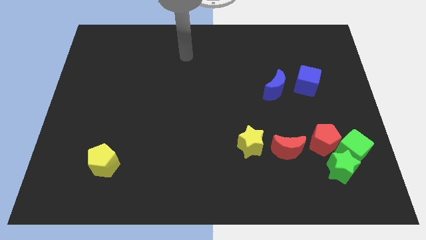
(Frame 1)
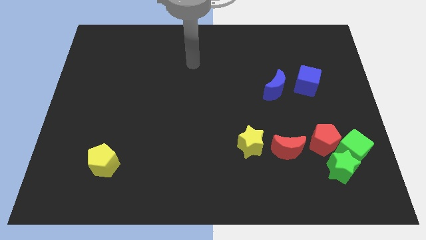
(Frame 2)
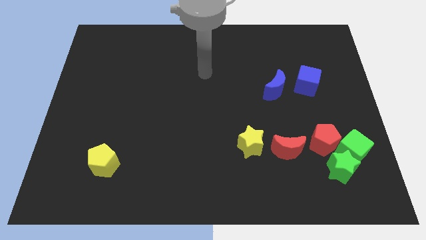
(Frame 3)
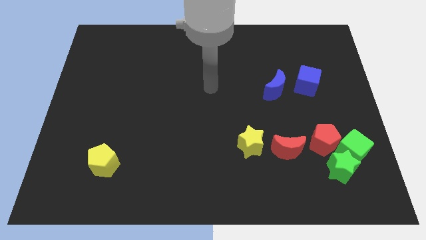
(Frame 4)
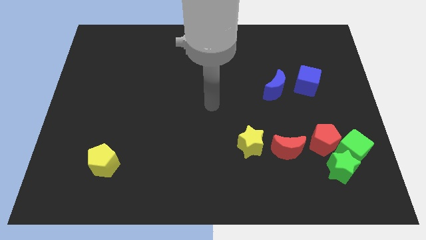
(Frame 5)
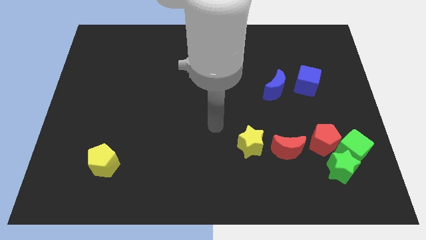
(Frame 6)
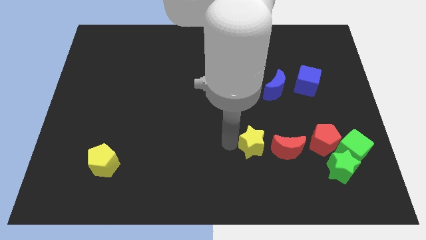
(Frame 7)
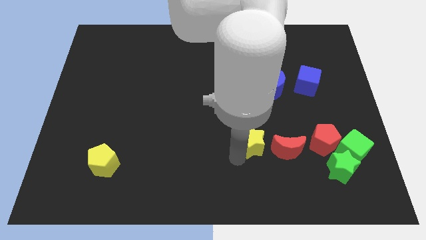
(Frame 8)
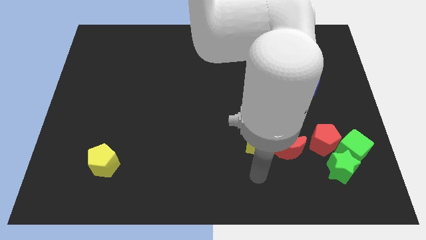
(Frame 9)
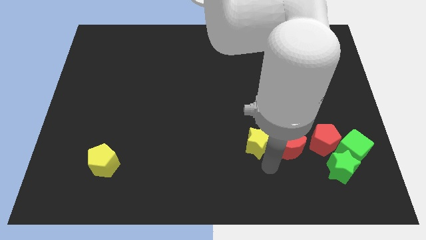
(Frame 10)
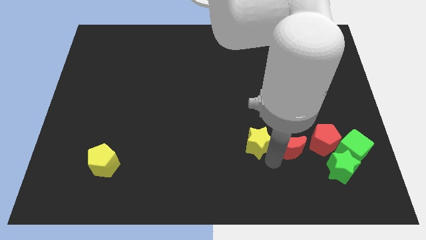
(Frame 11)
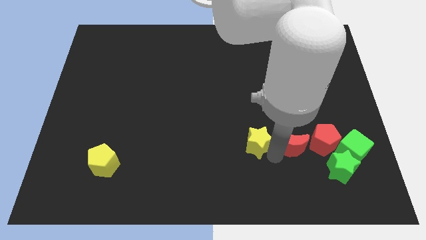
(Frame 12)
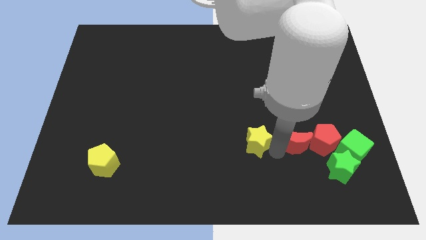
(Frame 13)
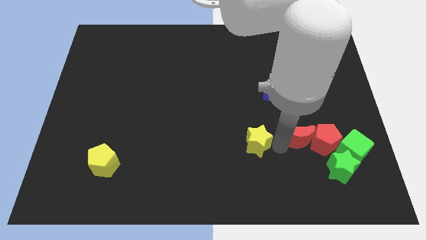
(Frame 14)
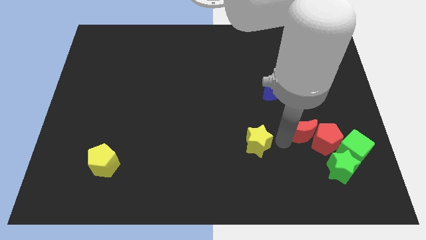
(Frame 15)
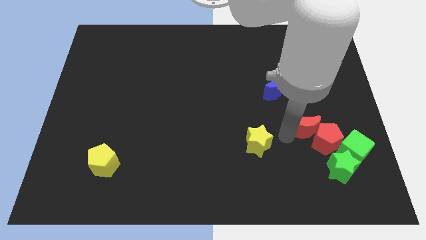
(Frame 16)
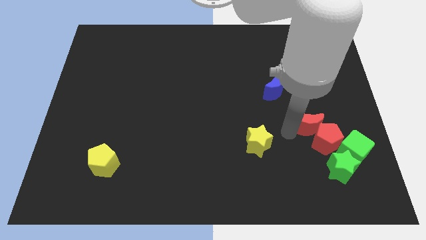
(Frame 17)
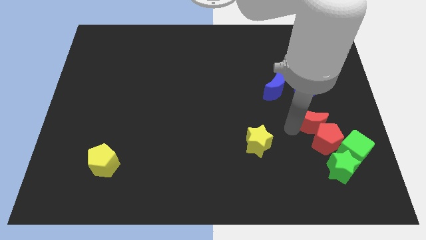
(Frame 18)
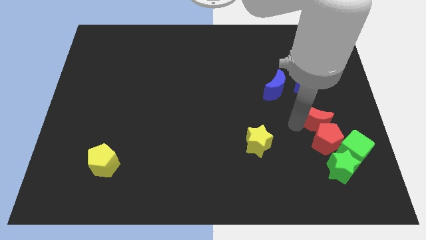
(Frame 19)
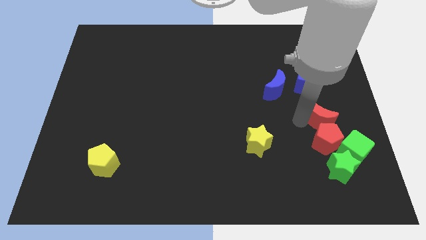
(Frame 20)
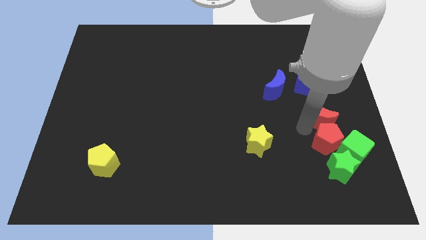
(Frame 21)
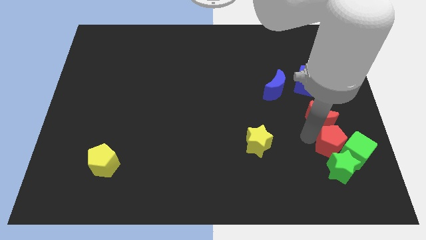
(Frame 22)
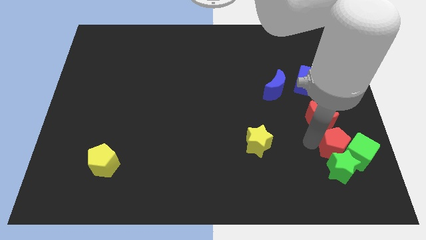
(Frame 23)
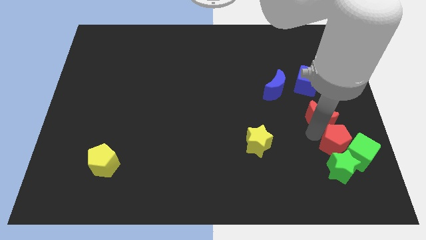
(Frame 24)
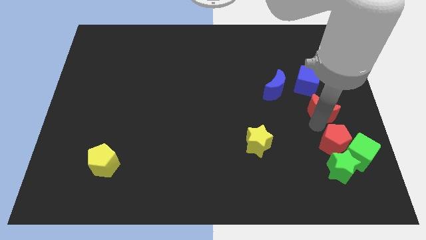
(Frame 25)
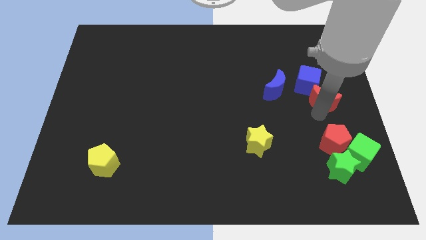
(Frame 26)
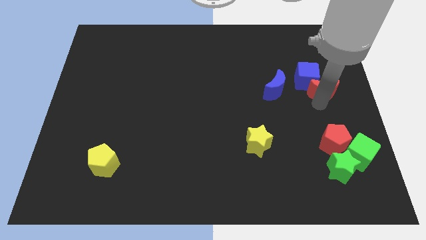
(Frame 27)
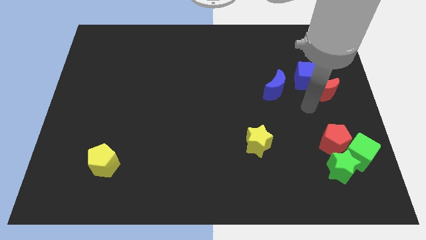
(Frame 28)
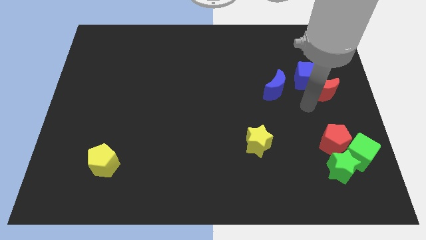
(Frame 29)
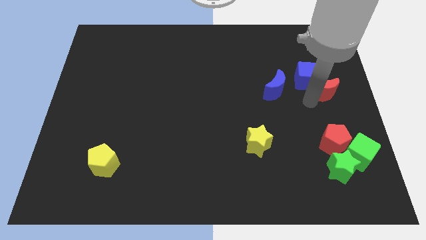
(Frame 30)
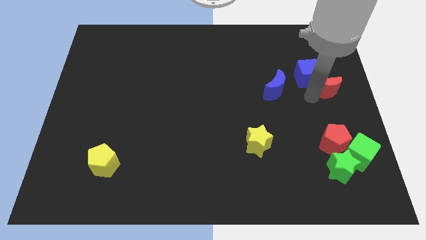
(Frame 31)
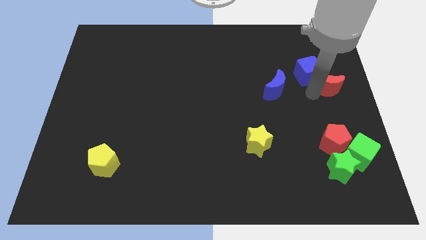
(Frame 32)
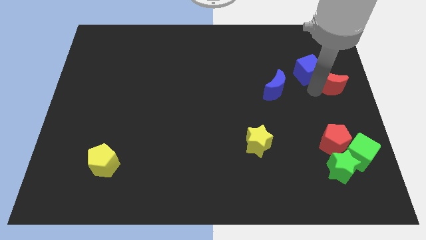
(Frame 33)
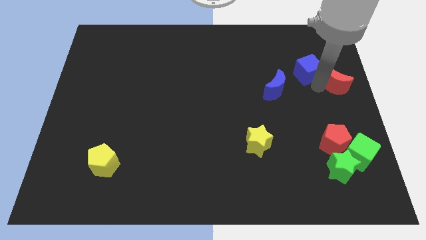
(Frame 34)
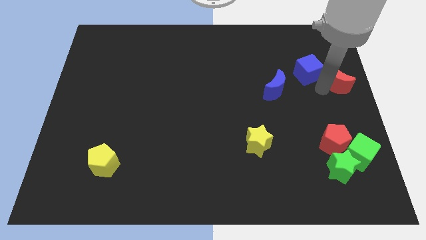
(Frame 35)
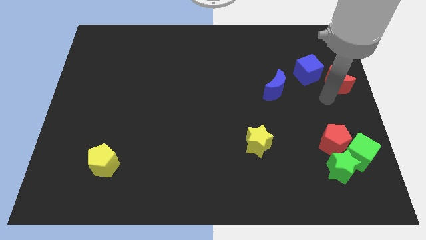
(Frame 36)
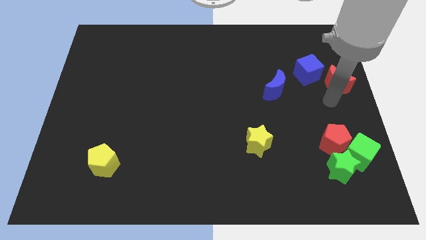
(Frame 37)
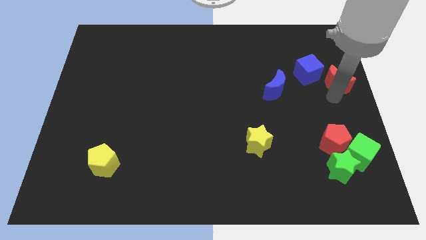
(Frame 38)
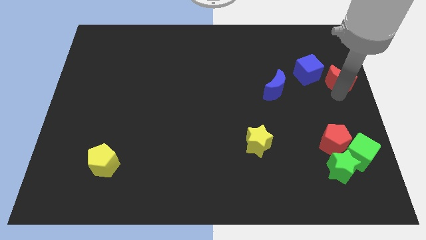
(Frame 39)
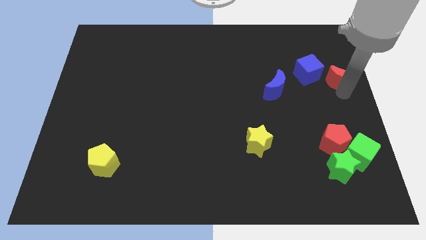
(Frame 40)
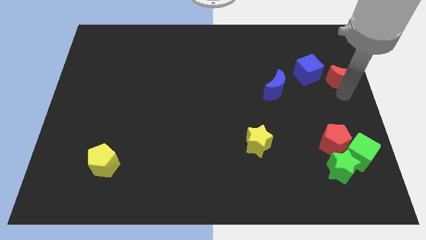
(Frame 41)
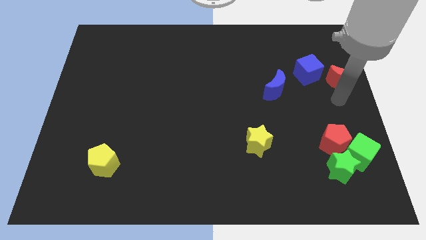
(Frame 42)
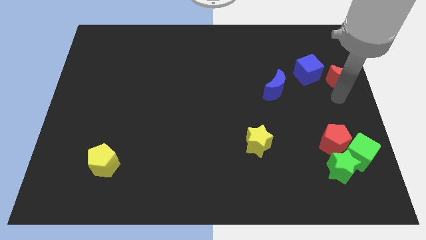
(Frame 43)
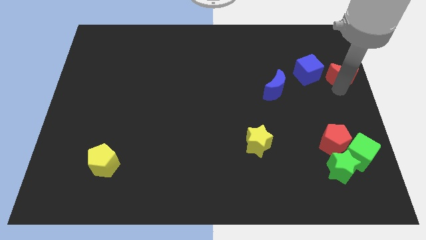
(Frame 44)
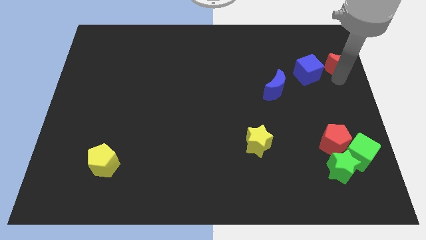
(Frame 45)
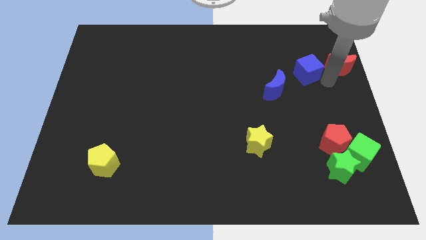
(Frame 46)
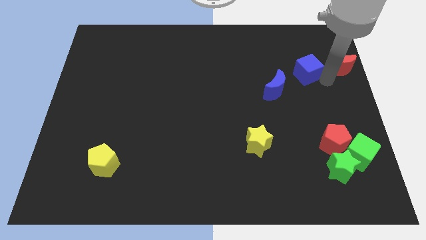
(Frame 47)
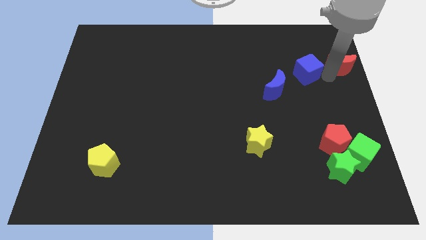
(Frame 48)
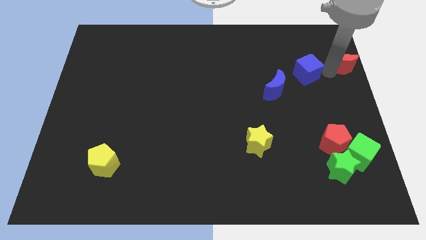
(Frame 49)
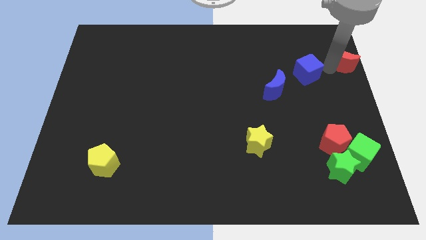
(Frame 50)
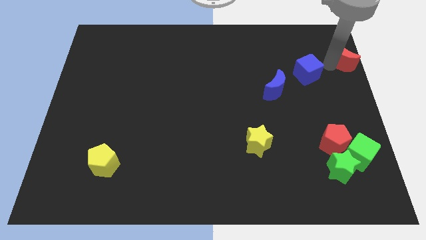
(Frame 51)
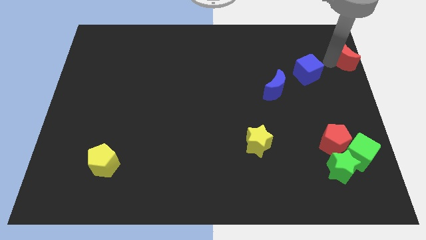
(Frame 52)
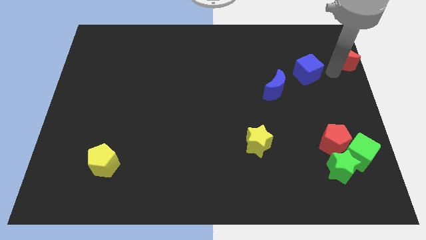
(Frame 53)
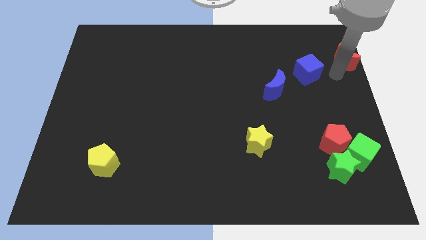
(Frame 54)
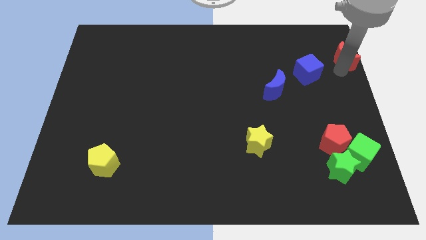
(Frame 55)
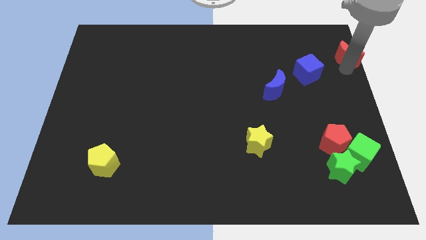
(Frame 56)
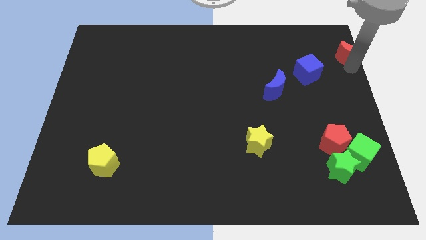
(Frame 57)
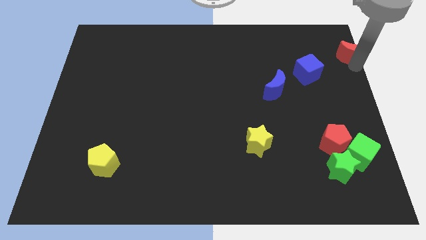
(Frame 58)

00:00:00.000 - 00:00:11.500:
put the red moon to the top right
